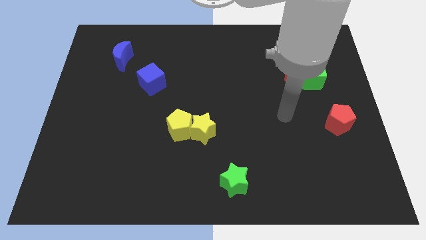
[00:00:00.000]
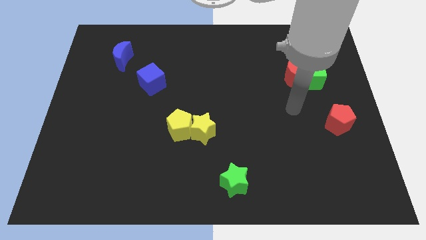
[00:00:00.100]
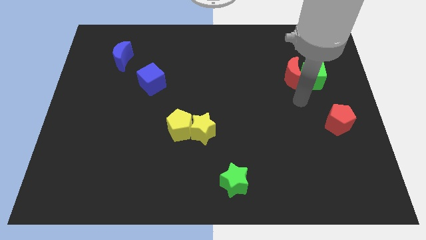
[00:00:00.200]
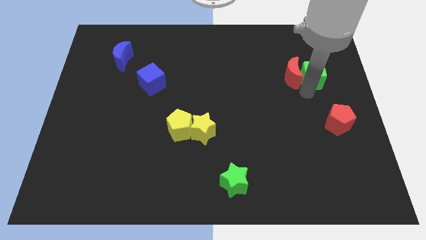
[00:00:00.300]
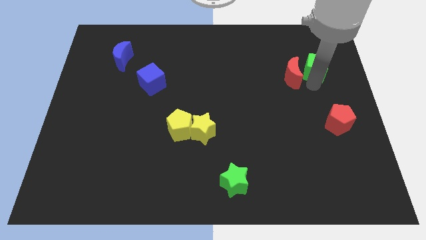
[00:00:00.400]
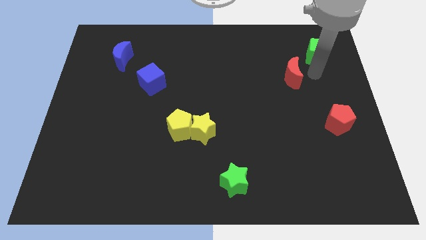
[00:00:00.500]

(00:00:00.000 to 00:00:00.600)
pull the red moon apart from the green cube

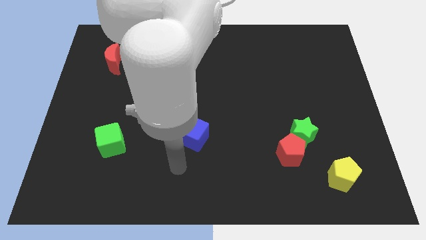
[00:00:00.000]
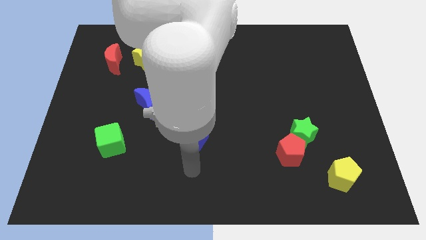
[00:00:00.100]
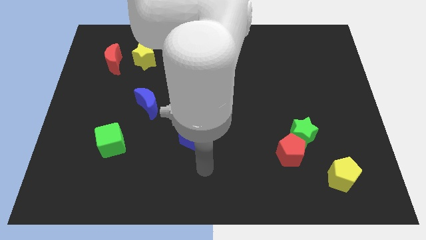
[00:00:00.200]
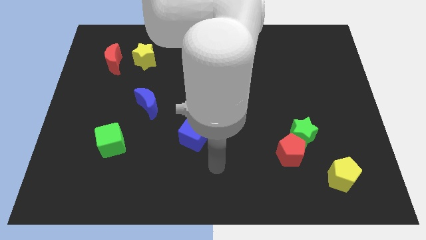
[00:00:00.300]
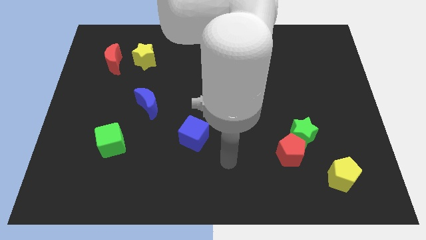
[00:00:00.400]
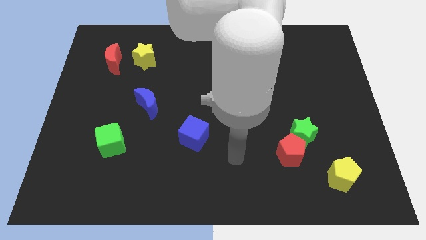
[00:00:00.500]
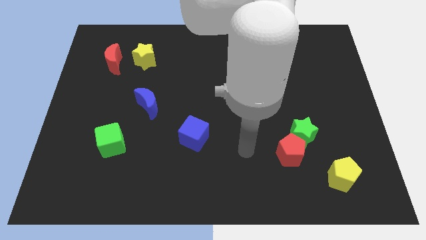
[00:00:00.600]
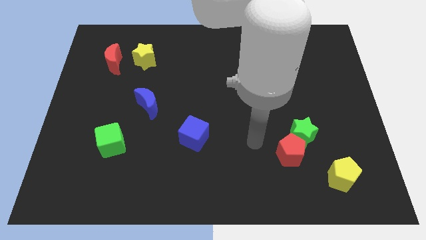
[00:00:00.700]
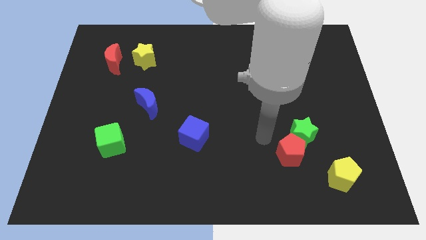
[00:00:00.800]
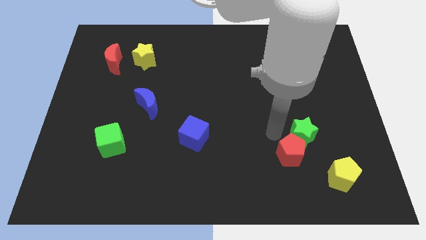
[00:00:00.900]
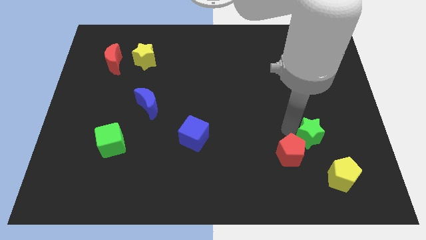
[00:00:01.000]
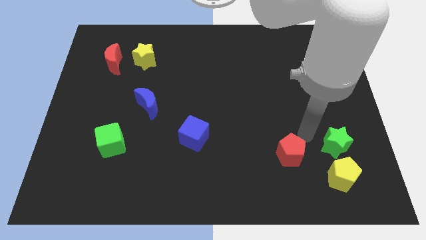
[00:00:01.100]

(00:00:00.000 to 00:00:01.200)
separate the red pentagon from the green star

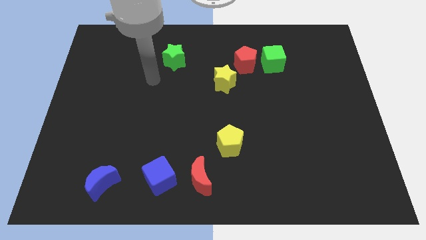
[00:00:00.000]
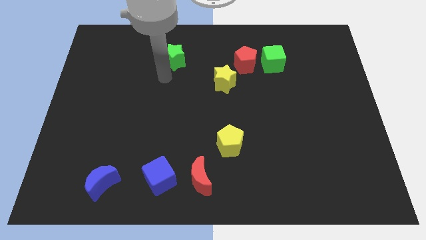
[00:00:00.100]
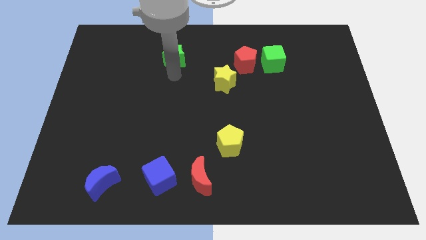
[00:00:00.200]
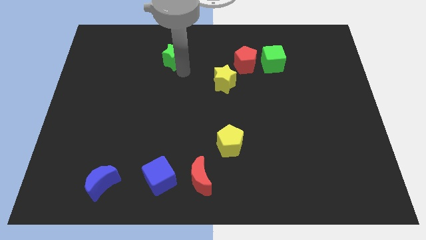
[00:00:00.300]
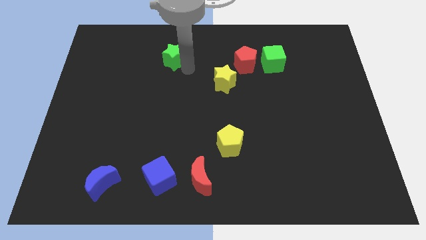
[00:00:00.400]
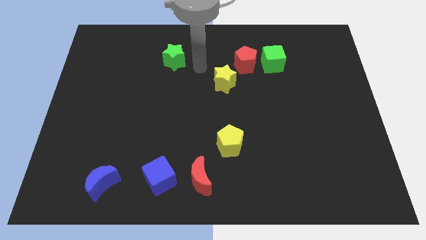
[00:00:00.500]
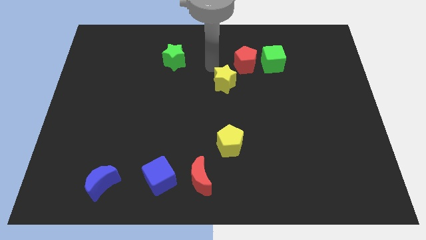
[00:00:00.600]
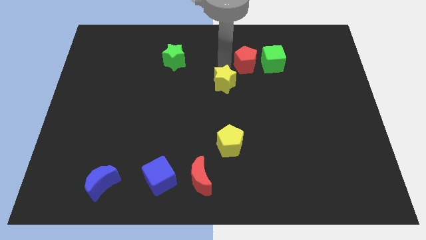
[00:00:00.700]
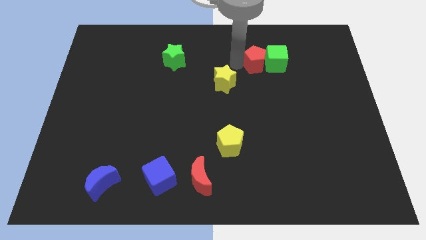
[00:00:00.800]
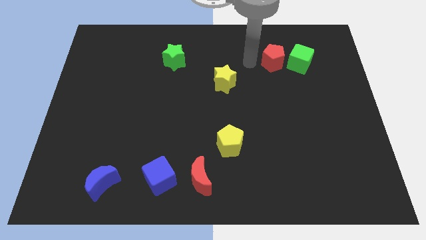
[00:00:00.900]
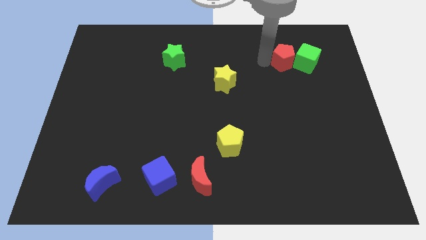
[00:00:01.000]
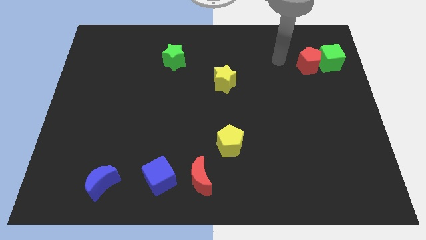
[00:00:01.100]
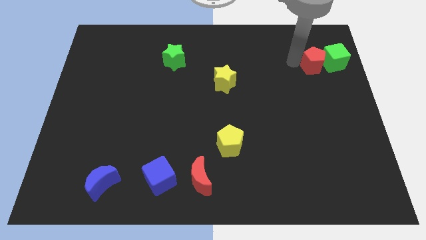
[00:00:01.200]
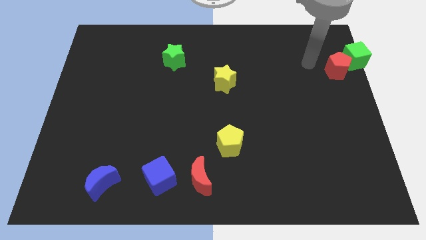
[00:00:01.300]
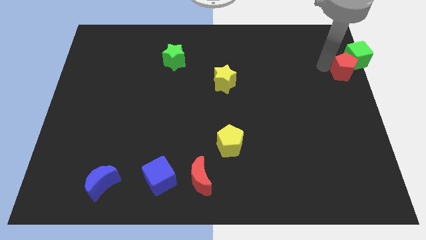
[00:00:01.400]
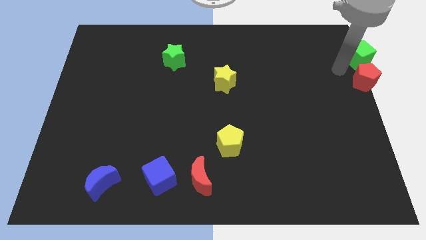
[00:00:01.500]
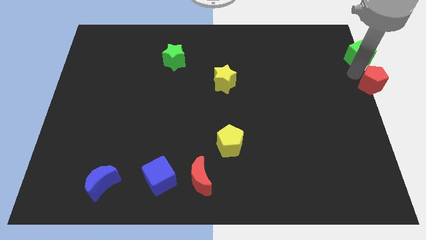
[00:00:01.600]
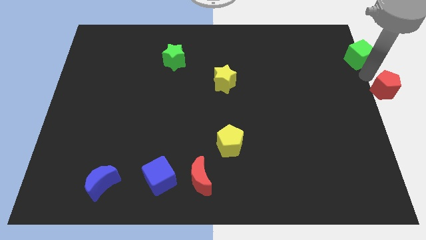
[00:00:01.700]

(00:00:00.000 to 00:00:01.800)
separate the green cube from the red pentagon

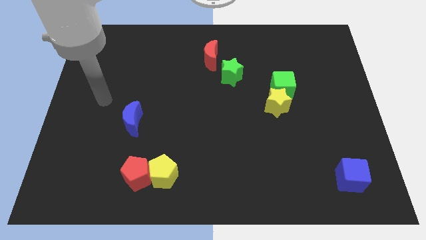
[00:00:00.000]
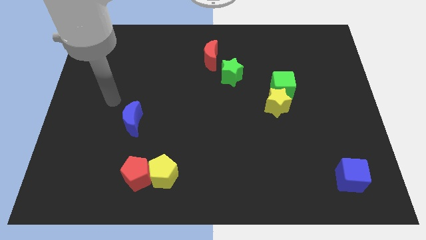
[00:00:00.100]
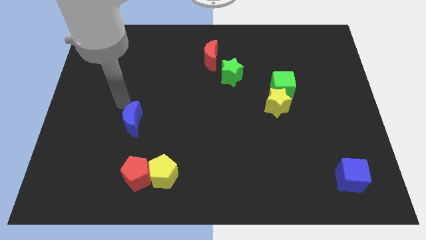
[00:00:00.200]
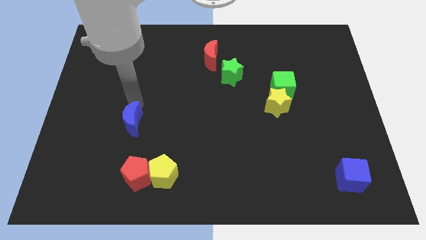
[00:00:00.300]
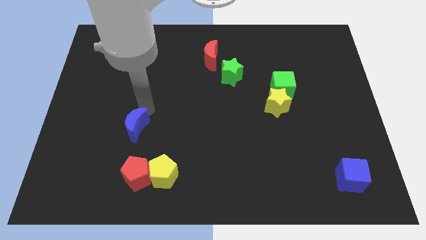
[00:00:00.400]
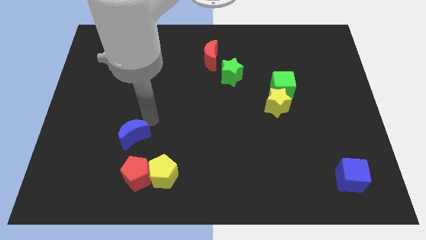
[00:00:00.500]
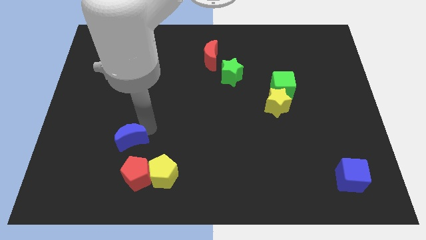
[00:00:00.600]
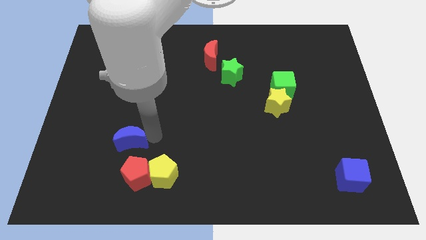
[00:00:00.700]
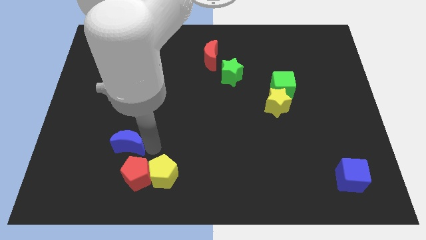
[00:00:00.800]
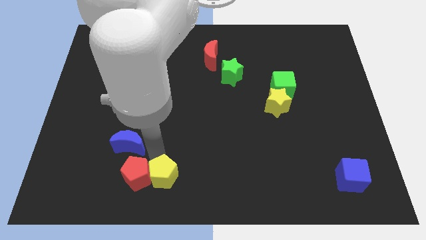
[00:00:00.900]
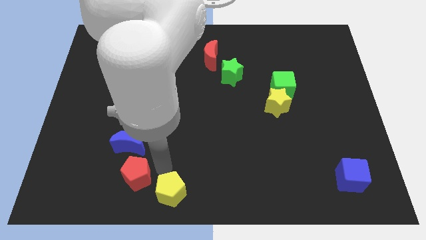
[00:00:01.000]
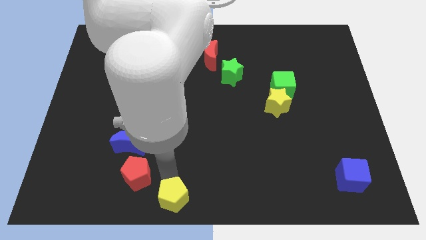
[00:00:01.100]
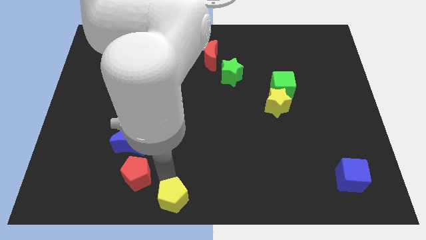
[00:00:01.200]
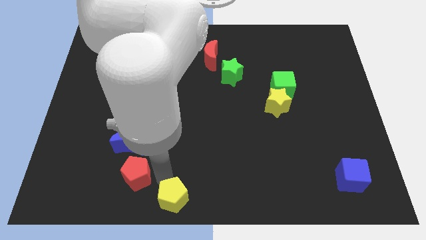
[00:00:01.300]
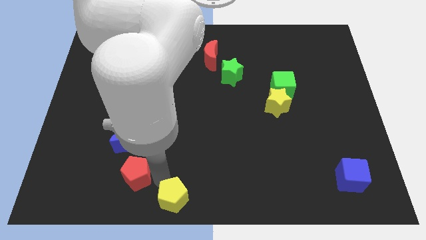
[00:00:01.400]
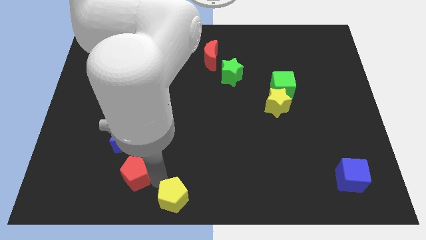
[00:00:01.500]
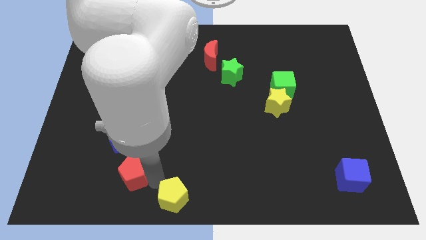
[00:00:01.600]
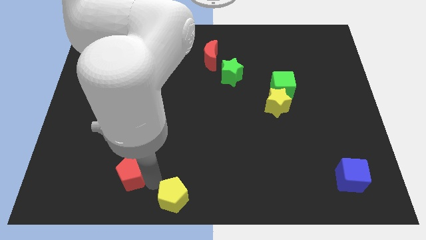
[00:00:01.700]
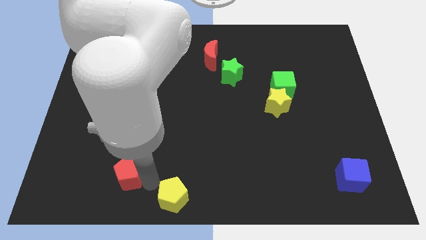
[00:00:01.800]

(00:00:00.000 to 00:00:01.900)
pull the red pentagon apart from the yellow pentagon

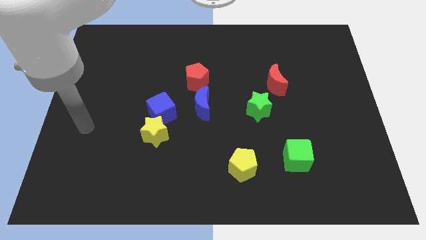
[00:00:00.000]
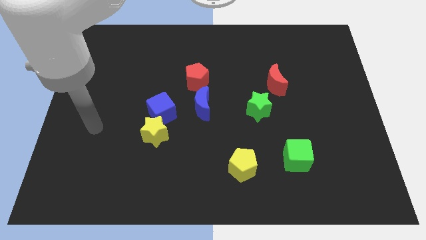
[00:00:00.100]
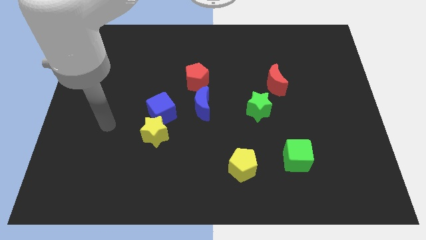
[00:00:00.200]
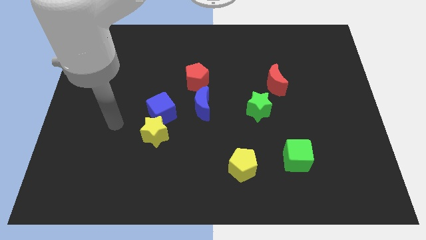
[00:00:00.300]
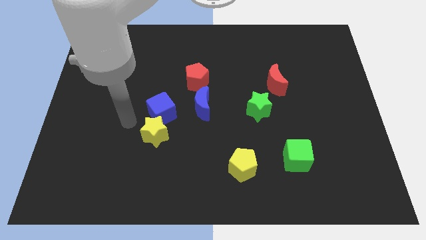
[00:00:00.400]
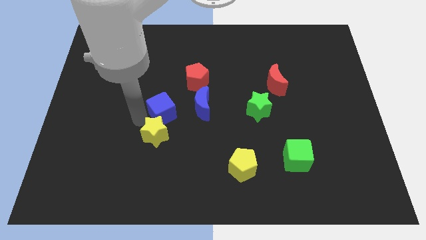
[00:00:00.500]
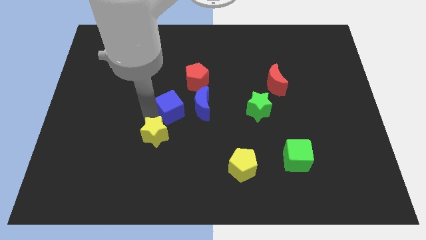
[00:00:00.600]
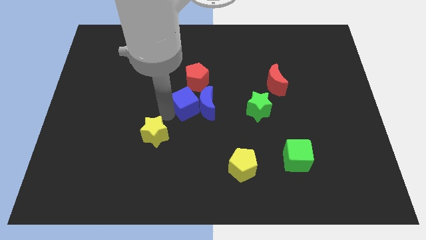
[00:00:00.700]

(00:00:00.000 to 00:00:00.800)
move the yellow star away from the blue cube

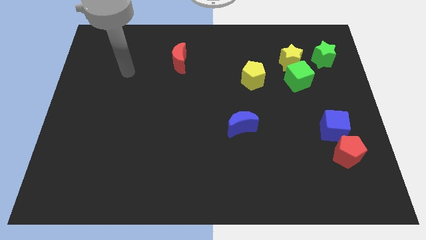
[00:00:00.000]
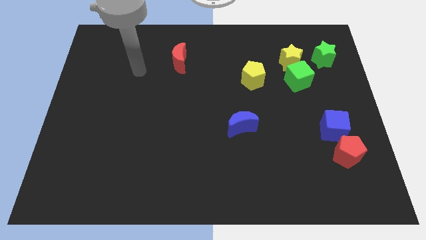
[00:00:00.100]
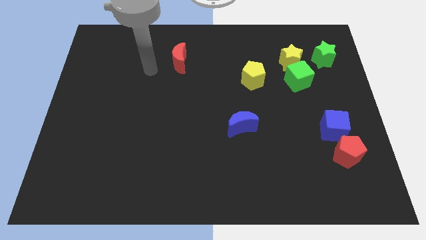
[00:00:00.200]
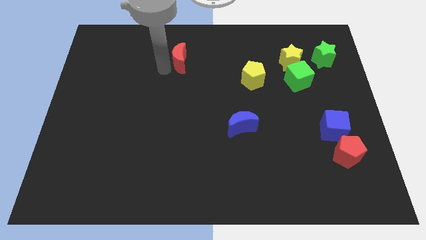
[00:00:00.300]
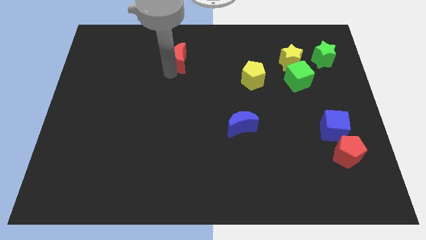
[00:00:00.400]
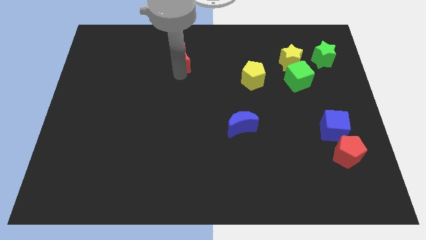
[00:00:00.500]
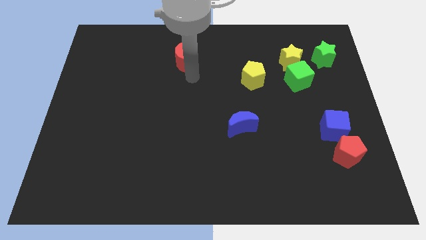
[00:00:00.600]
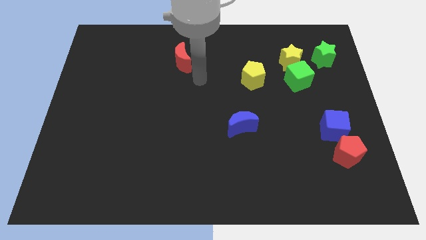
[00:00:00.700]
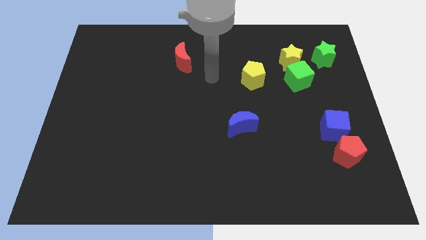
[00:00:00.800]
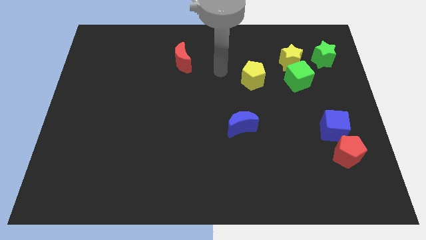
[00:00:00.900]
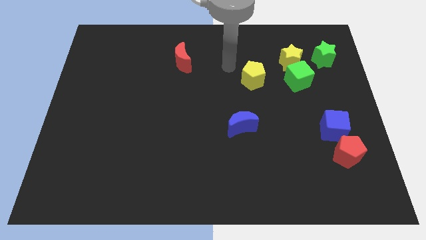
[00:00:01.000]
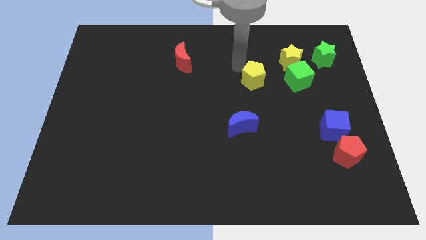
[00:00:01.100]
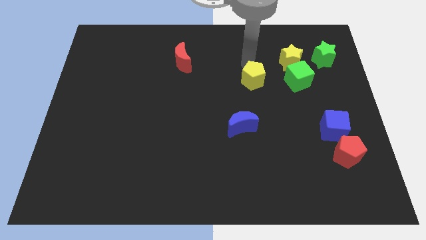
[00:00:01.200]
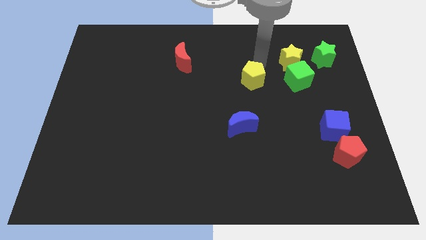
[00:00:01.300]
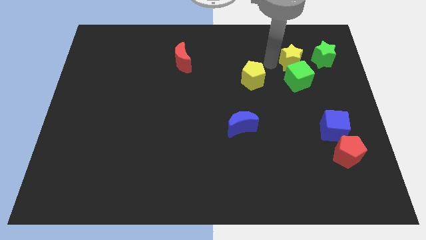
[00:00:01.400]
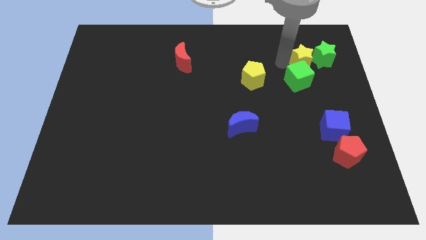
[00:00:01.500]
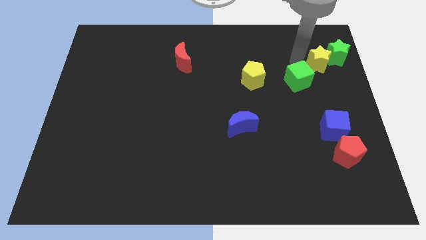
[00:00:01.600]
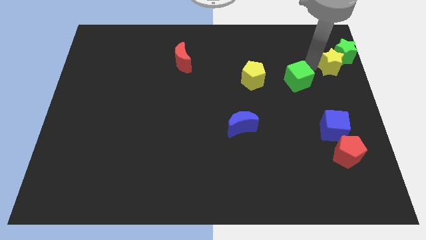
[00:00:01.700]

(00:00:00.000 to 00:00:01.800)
move the green cube away from the yellow star

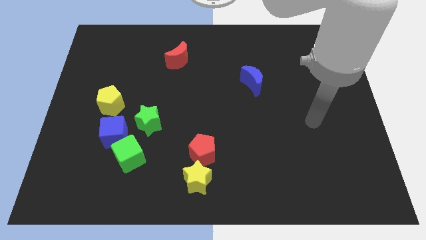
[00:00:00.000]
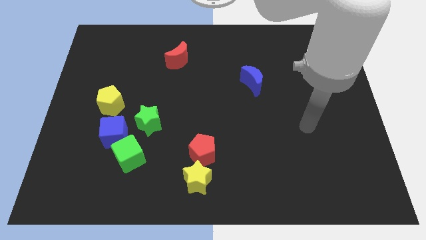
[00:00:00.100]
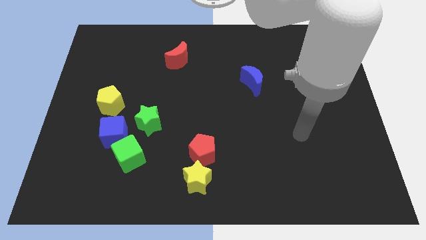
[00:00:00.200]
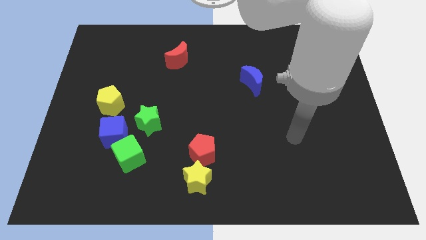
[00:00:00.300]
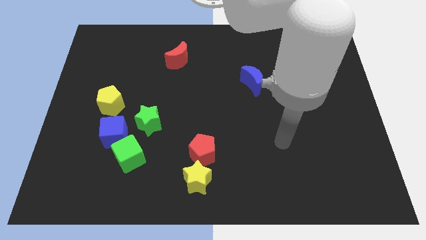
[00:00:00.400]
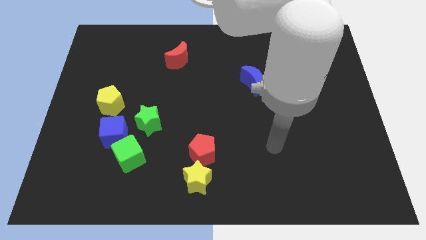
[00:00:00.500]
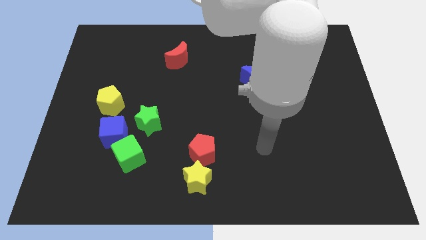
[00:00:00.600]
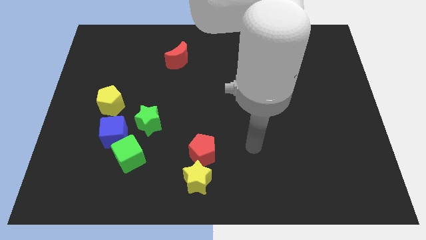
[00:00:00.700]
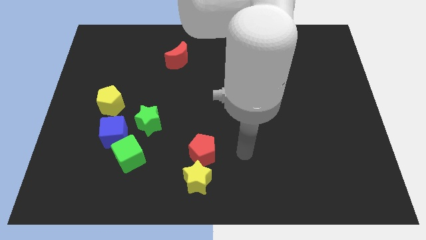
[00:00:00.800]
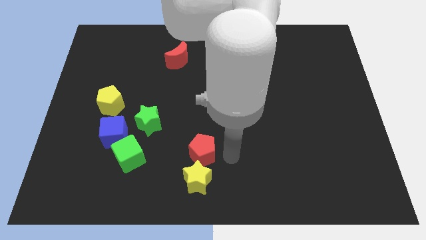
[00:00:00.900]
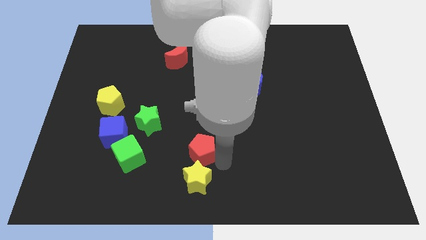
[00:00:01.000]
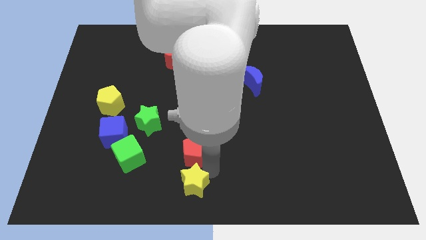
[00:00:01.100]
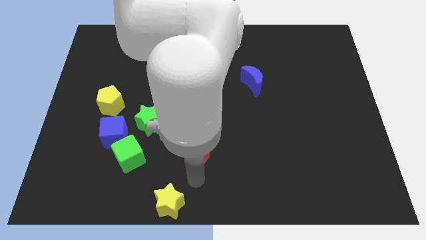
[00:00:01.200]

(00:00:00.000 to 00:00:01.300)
pull the red pentagon apart from the yellow star
